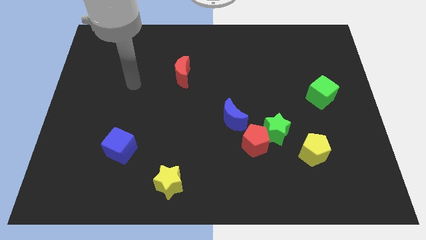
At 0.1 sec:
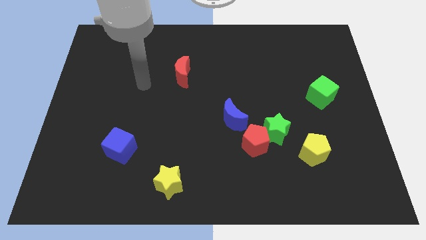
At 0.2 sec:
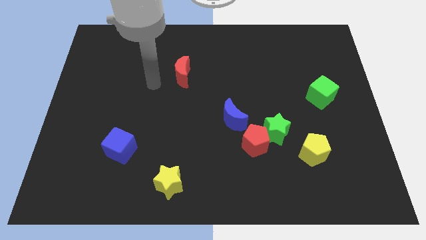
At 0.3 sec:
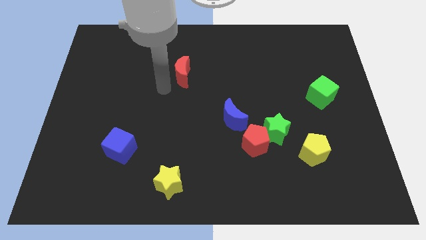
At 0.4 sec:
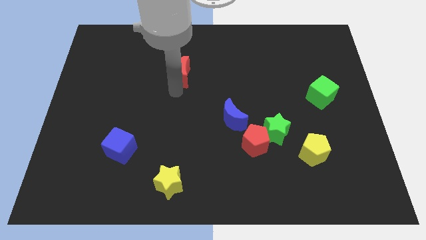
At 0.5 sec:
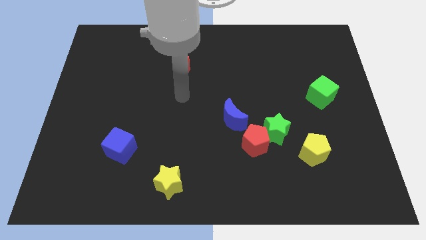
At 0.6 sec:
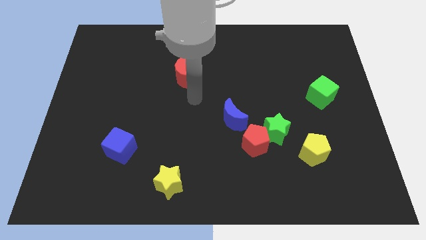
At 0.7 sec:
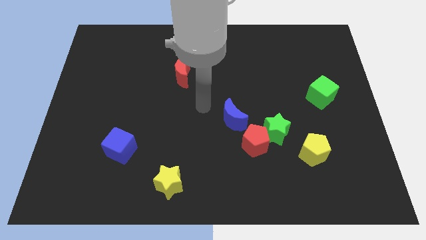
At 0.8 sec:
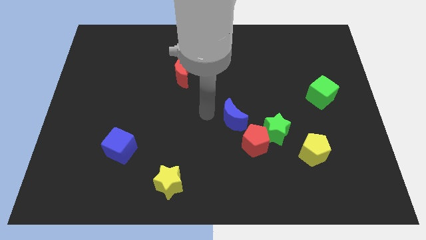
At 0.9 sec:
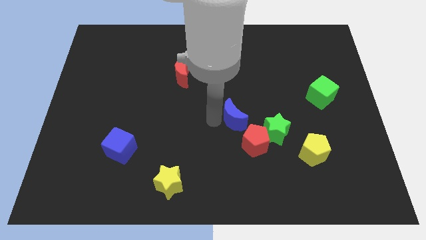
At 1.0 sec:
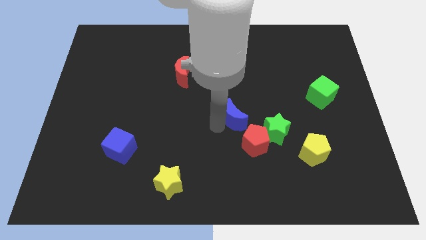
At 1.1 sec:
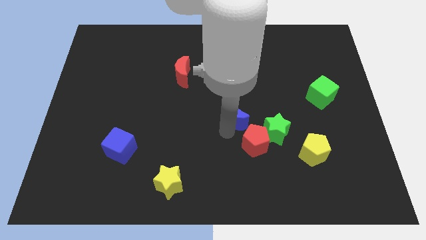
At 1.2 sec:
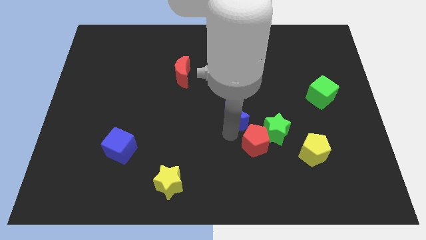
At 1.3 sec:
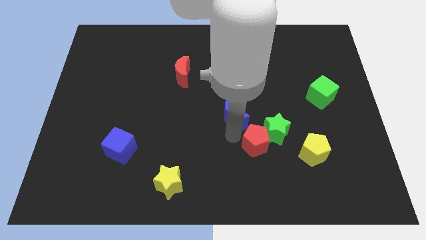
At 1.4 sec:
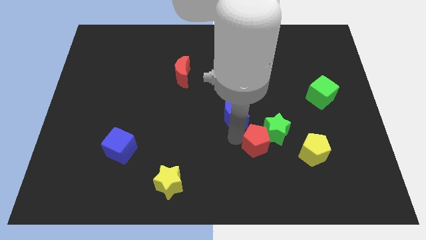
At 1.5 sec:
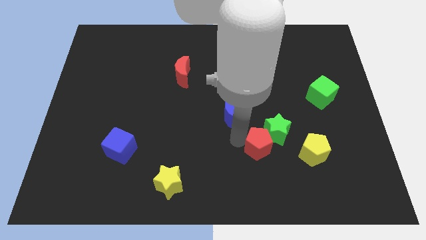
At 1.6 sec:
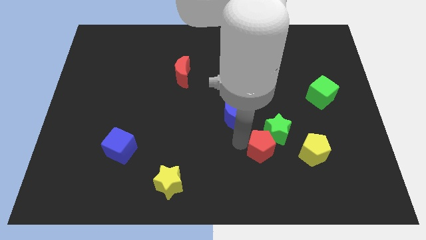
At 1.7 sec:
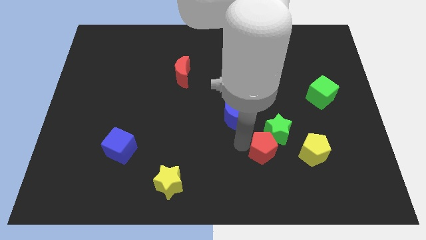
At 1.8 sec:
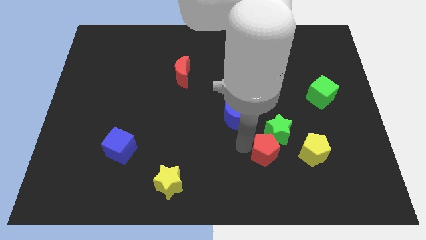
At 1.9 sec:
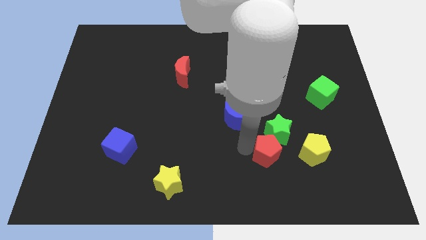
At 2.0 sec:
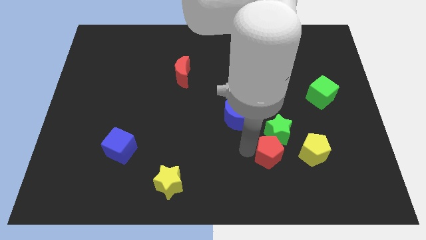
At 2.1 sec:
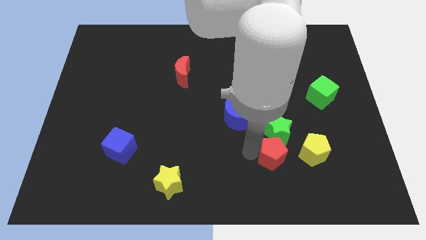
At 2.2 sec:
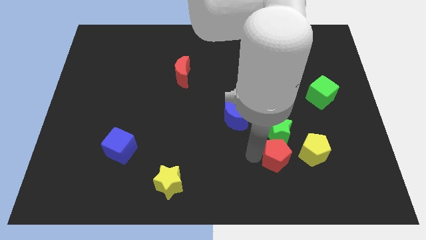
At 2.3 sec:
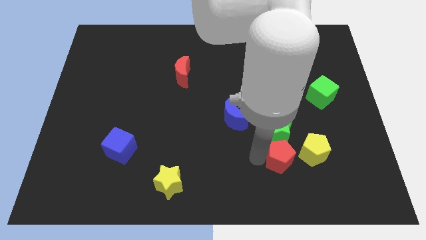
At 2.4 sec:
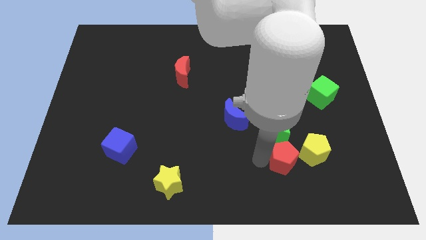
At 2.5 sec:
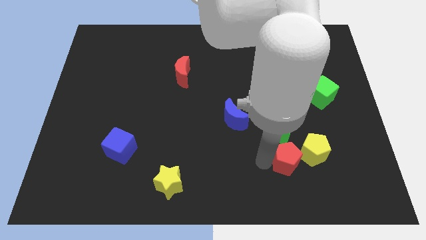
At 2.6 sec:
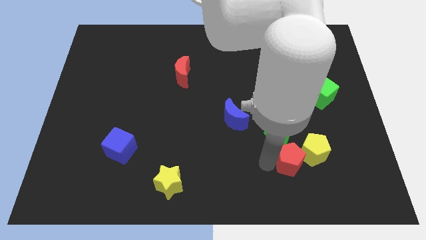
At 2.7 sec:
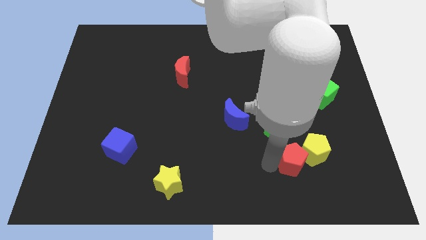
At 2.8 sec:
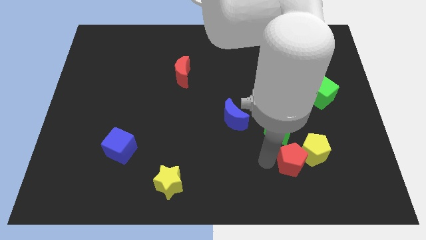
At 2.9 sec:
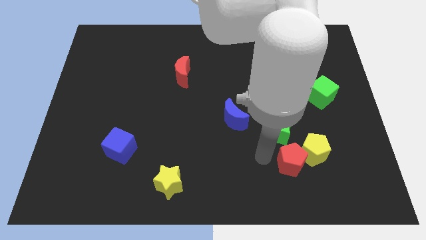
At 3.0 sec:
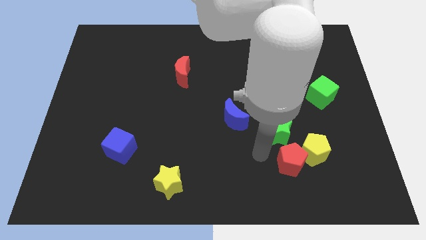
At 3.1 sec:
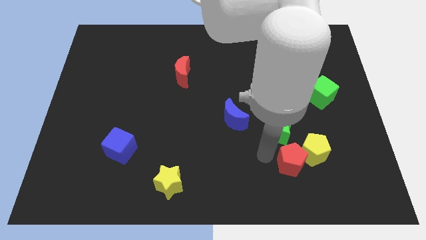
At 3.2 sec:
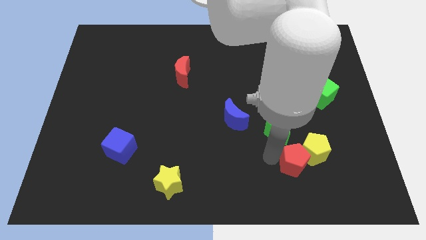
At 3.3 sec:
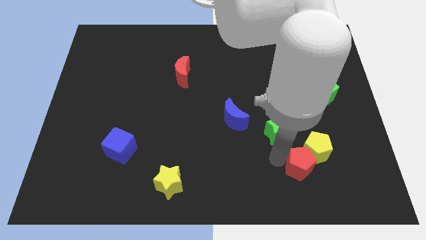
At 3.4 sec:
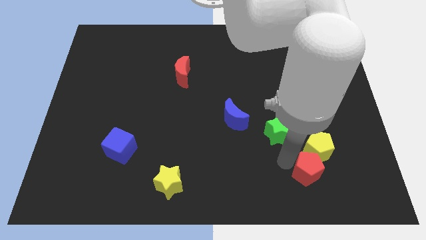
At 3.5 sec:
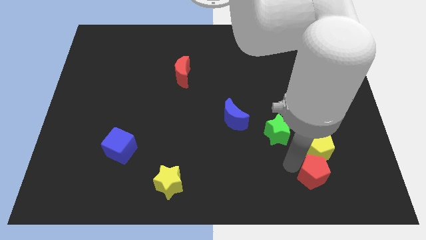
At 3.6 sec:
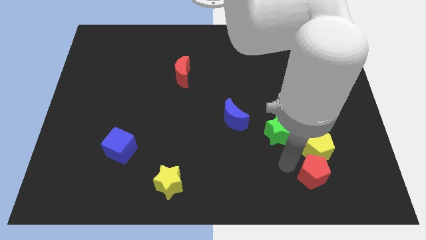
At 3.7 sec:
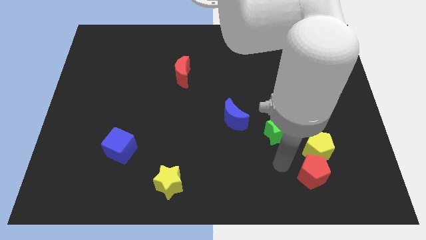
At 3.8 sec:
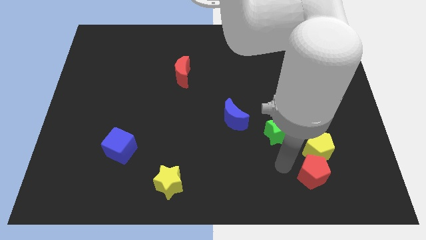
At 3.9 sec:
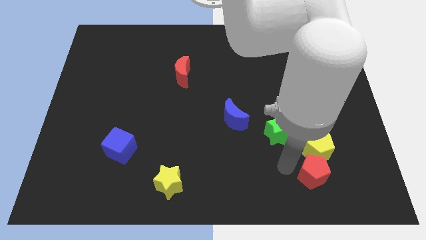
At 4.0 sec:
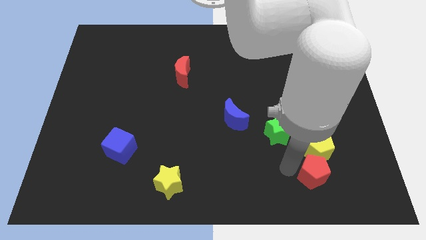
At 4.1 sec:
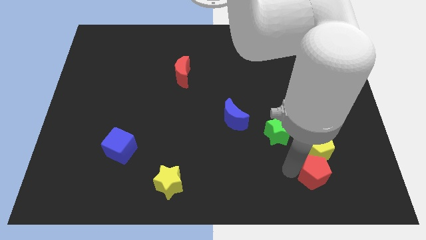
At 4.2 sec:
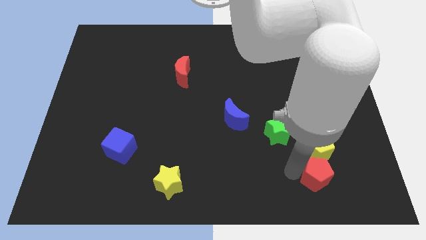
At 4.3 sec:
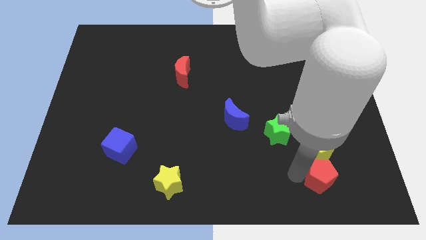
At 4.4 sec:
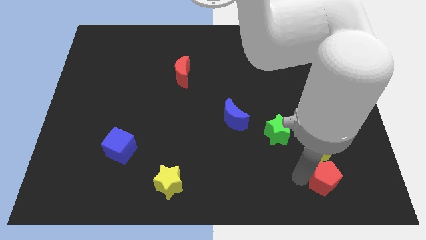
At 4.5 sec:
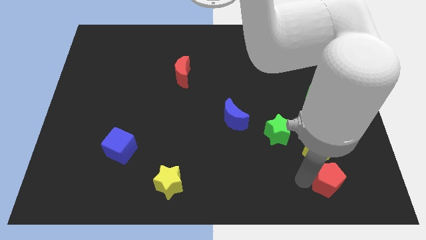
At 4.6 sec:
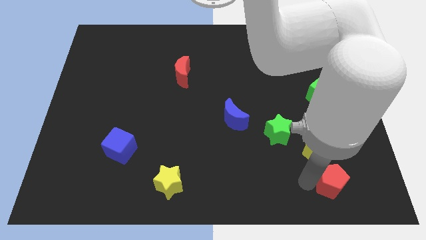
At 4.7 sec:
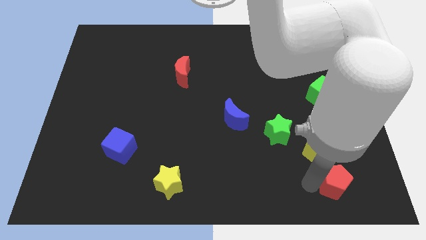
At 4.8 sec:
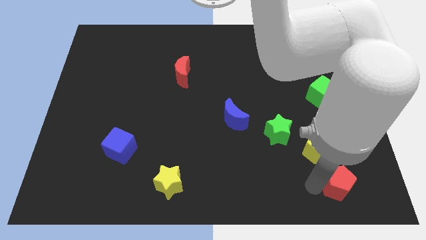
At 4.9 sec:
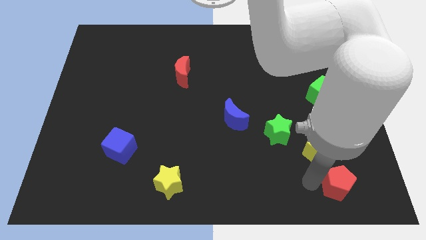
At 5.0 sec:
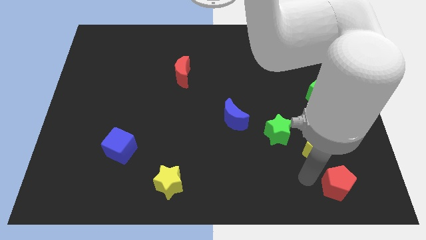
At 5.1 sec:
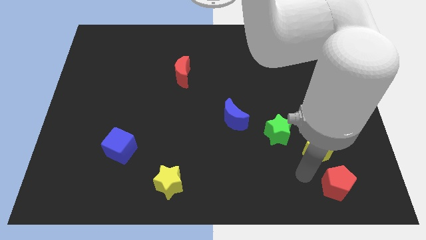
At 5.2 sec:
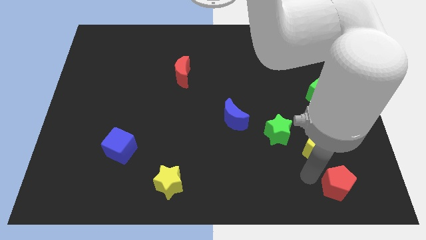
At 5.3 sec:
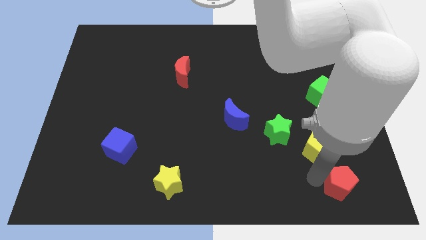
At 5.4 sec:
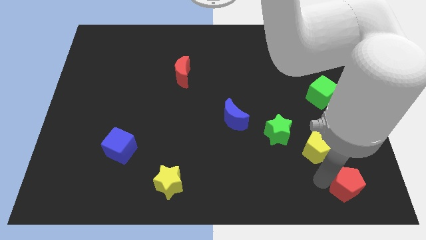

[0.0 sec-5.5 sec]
slide the red pentagon to the lower right corner

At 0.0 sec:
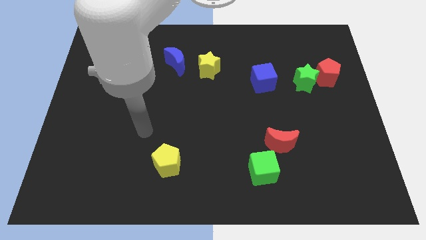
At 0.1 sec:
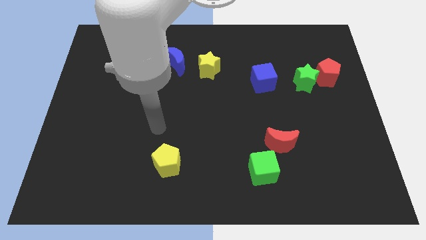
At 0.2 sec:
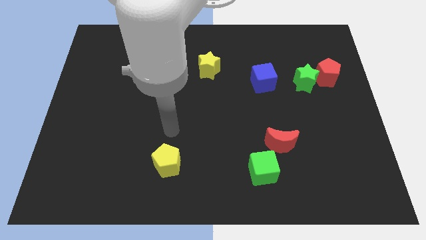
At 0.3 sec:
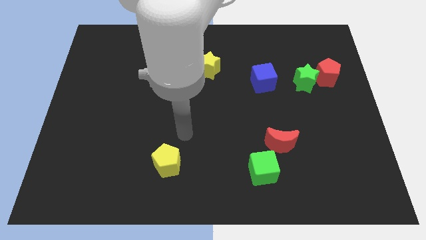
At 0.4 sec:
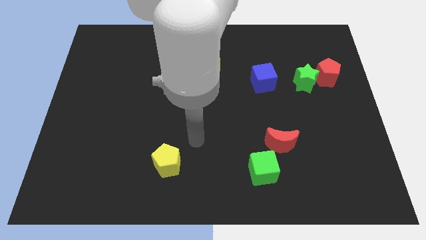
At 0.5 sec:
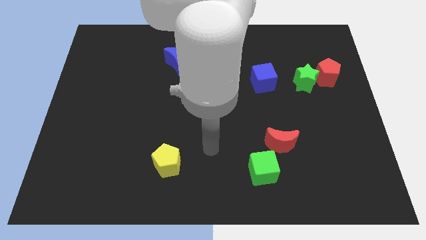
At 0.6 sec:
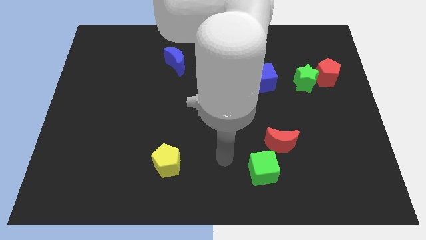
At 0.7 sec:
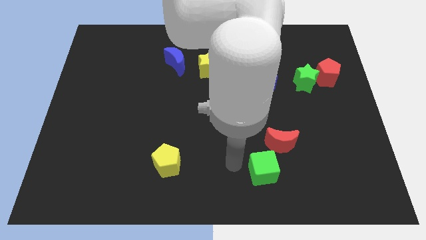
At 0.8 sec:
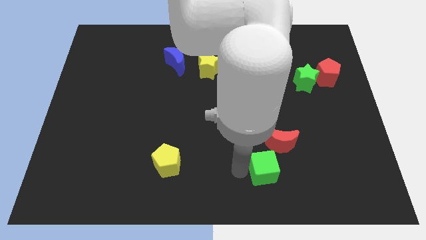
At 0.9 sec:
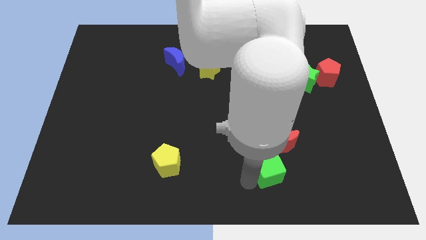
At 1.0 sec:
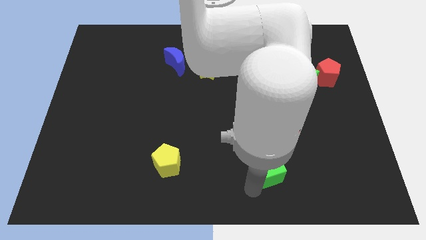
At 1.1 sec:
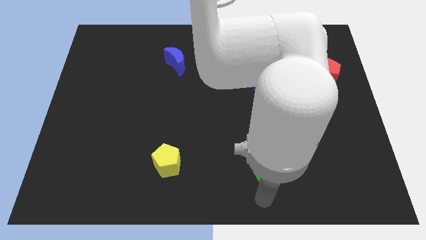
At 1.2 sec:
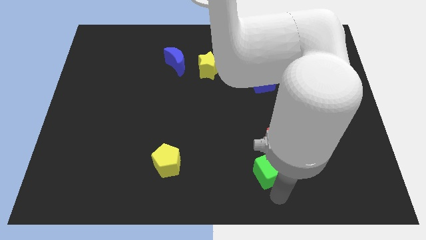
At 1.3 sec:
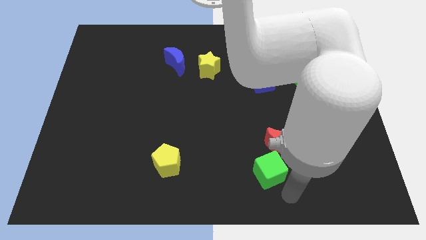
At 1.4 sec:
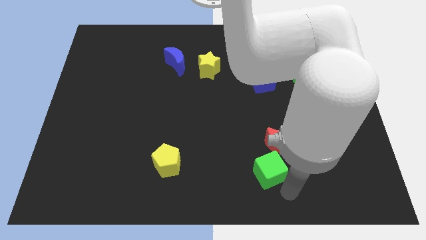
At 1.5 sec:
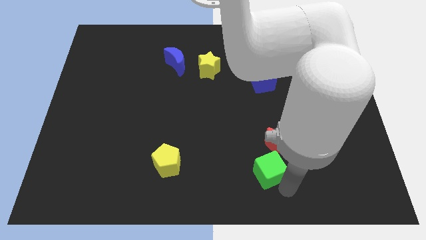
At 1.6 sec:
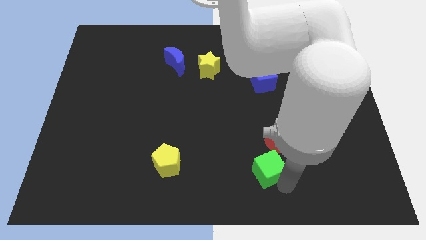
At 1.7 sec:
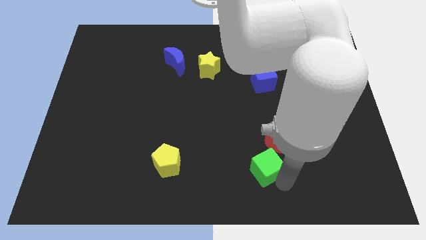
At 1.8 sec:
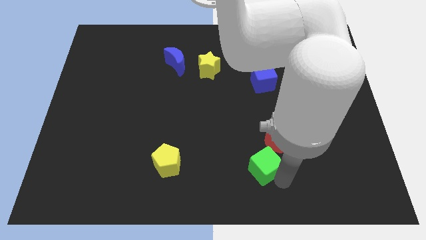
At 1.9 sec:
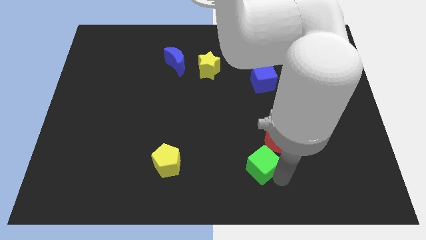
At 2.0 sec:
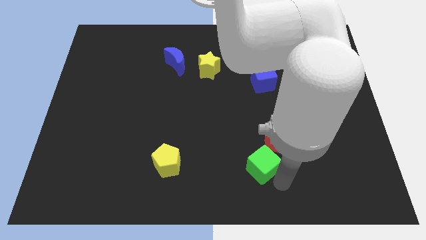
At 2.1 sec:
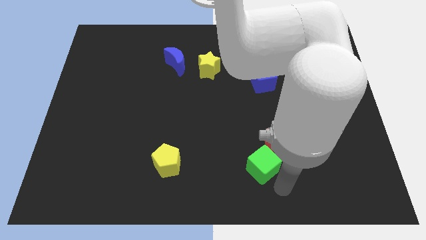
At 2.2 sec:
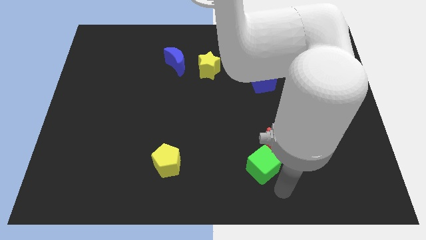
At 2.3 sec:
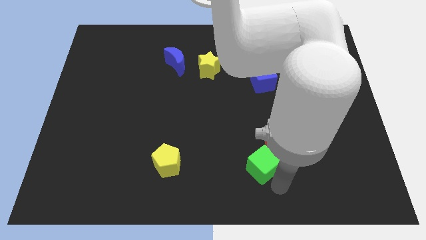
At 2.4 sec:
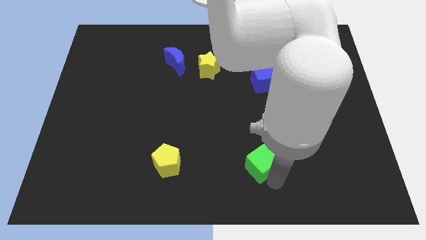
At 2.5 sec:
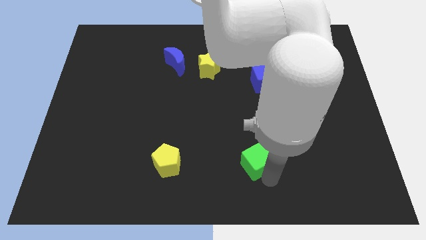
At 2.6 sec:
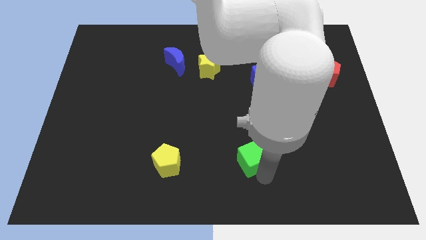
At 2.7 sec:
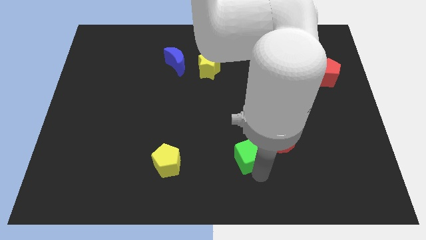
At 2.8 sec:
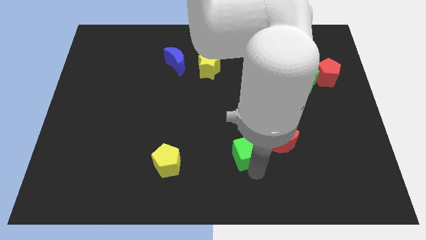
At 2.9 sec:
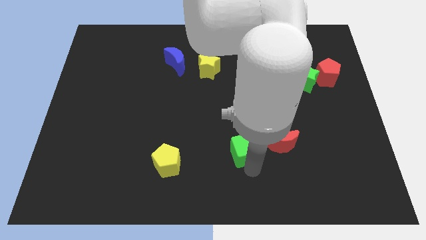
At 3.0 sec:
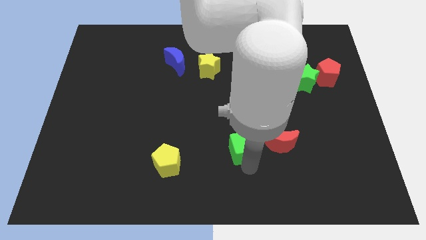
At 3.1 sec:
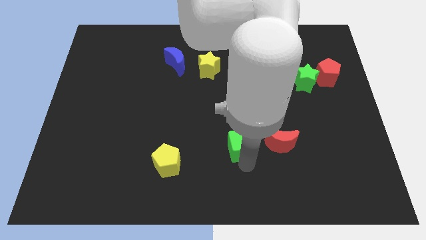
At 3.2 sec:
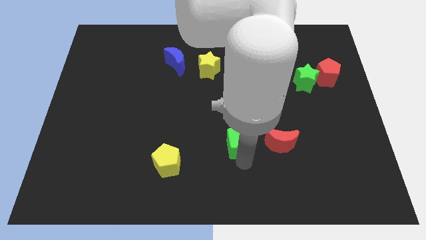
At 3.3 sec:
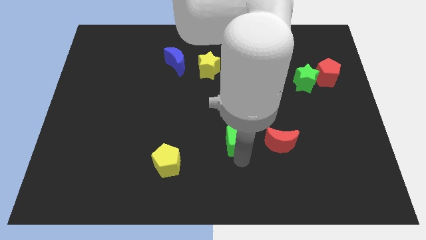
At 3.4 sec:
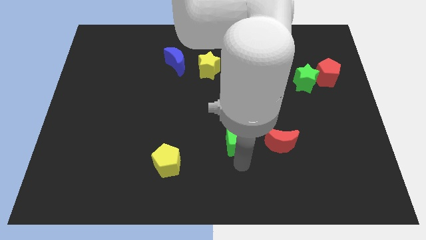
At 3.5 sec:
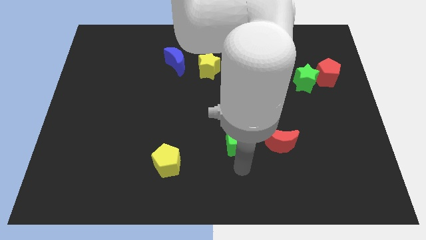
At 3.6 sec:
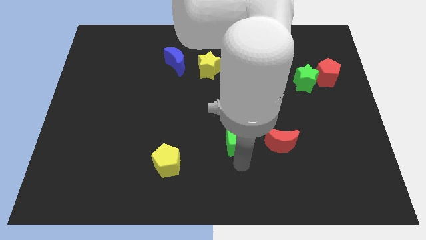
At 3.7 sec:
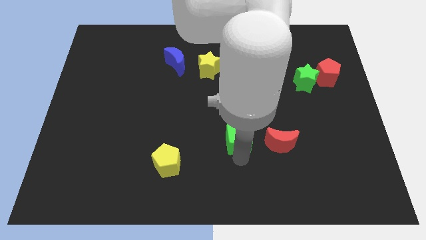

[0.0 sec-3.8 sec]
put the green cube to the center of the board
